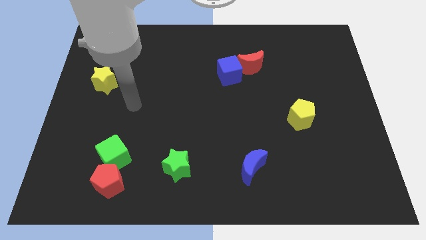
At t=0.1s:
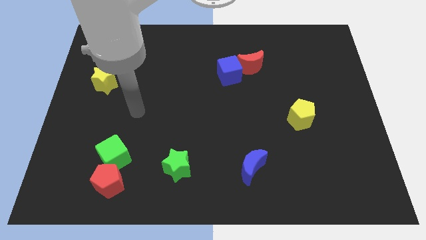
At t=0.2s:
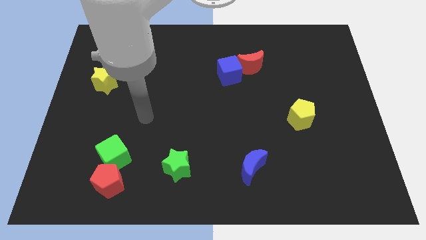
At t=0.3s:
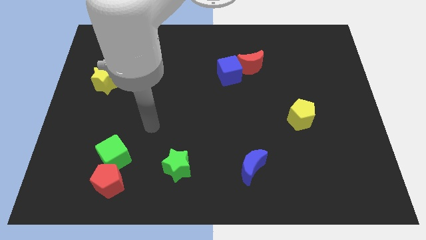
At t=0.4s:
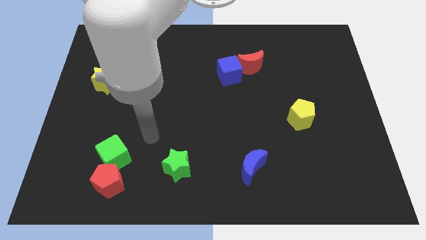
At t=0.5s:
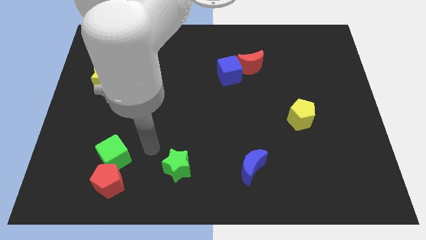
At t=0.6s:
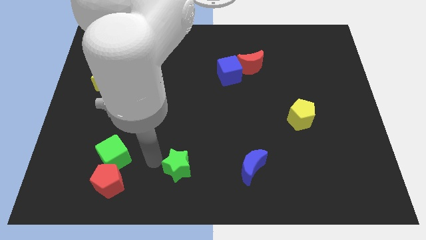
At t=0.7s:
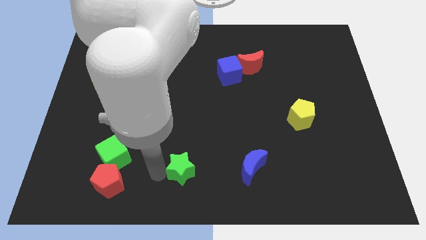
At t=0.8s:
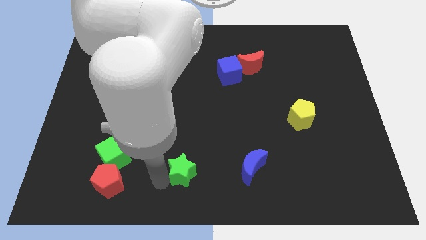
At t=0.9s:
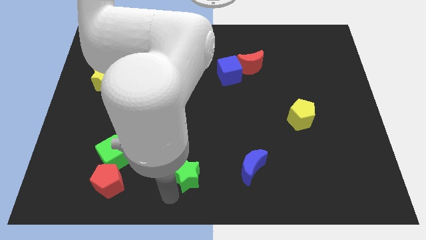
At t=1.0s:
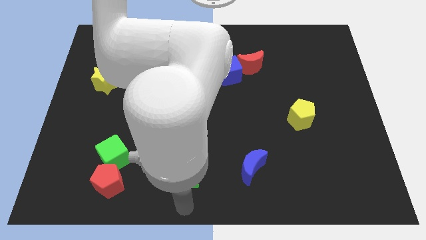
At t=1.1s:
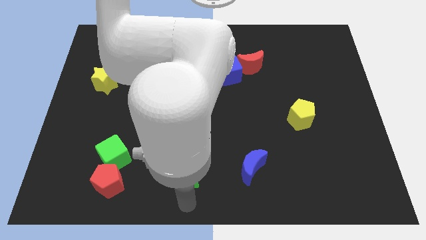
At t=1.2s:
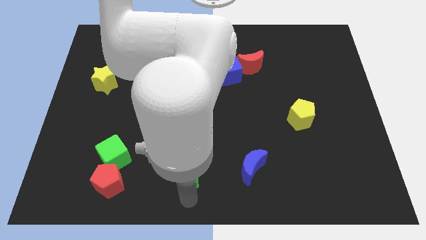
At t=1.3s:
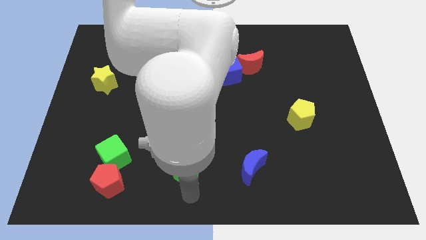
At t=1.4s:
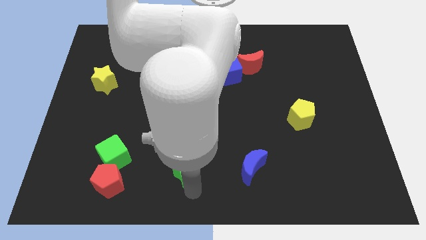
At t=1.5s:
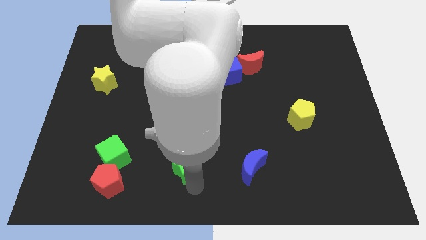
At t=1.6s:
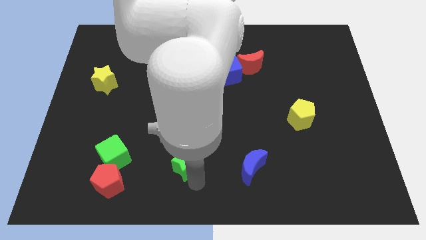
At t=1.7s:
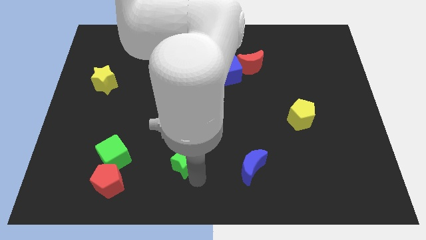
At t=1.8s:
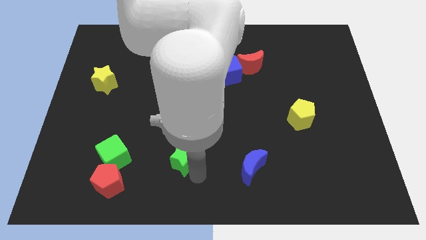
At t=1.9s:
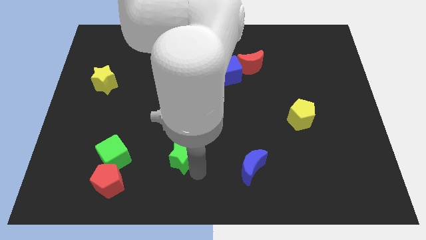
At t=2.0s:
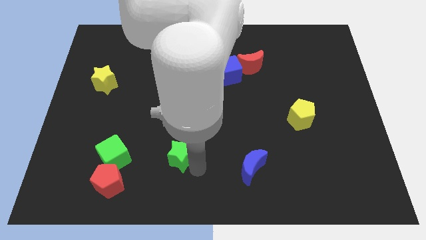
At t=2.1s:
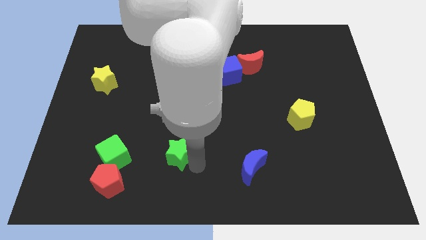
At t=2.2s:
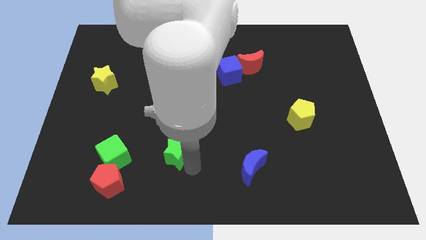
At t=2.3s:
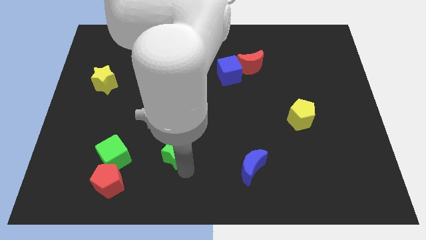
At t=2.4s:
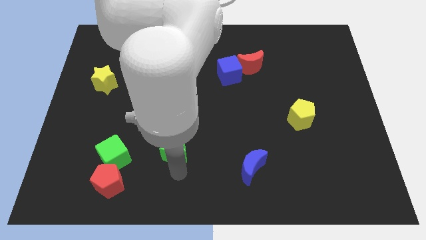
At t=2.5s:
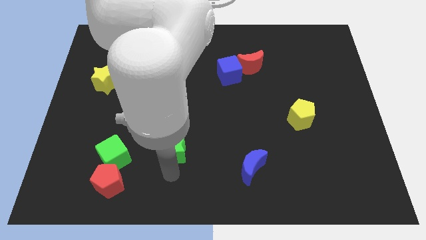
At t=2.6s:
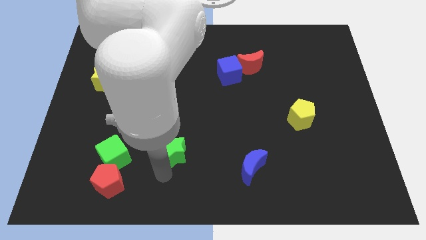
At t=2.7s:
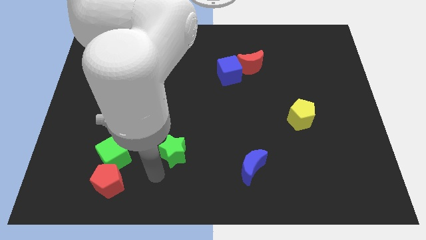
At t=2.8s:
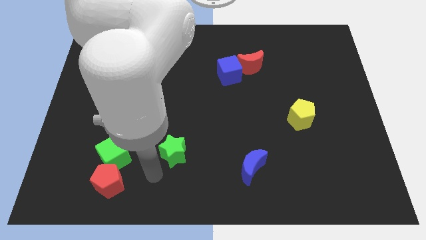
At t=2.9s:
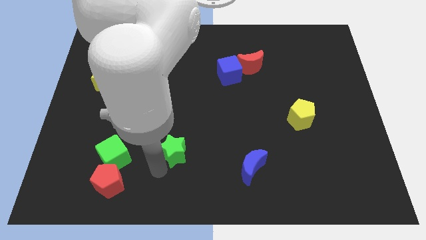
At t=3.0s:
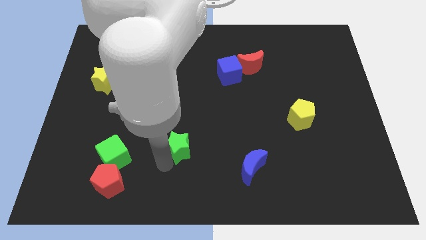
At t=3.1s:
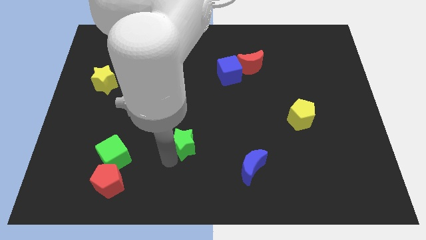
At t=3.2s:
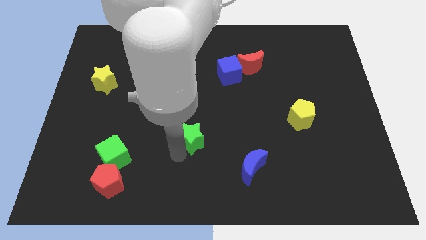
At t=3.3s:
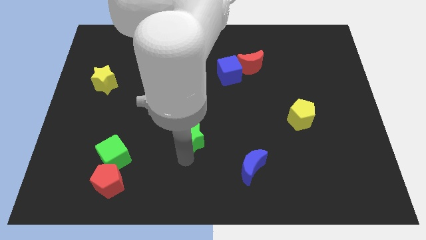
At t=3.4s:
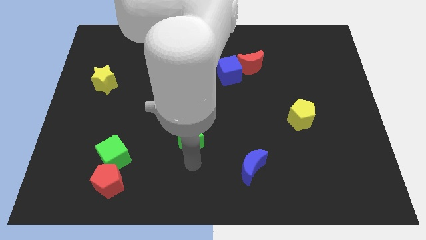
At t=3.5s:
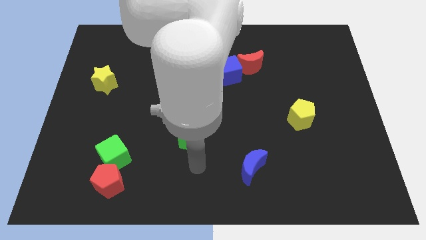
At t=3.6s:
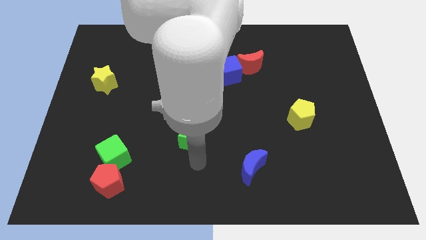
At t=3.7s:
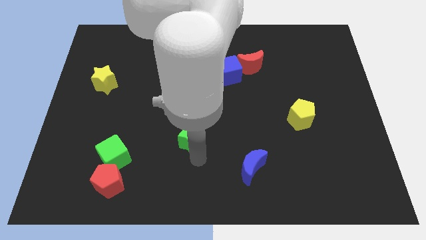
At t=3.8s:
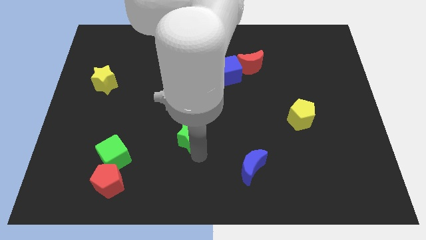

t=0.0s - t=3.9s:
push the green star a little bit upwards

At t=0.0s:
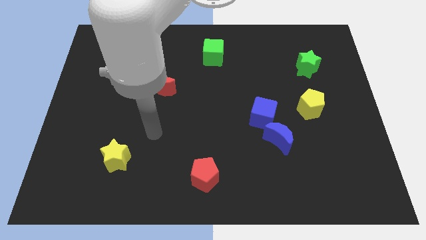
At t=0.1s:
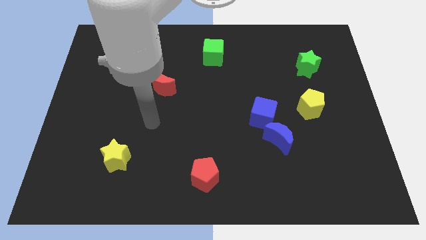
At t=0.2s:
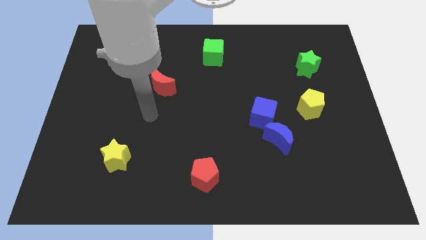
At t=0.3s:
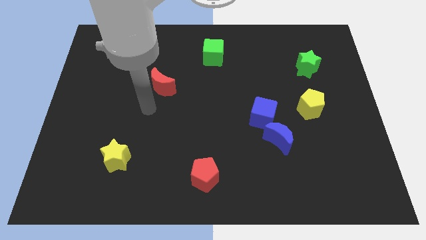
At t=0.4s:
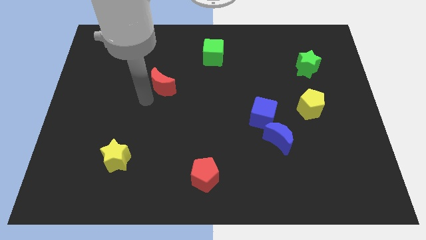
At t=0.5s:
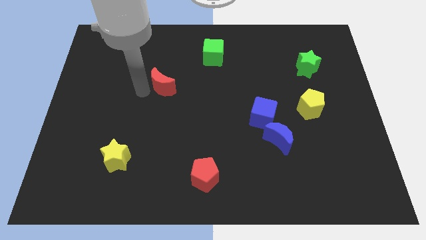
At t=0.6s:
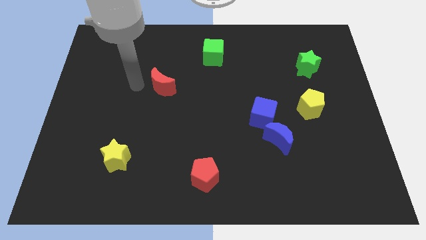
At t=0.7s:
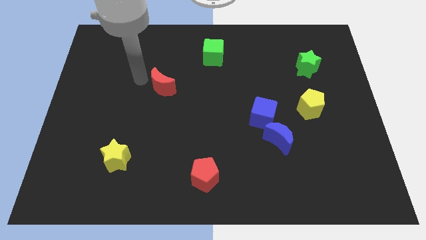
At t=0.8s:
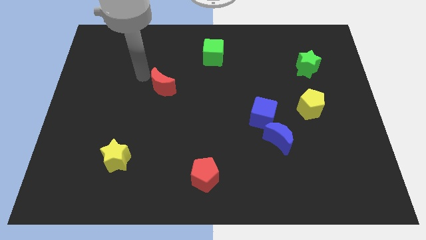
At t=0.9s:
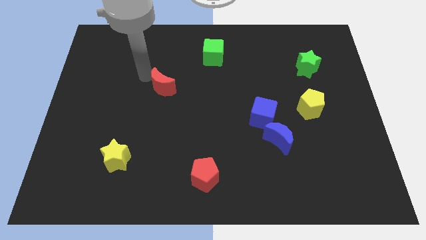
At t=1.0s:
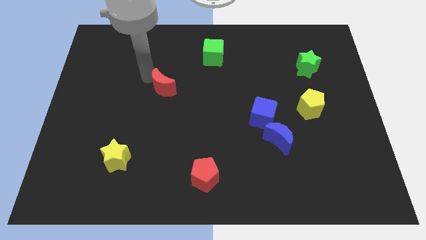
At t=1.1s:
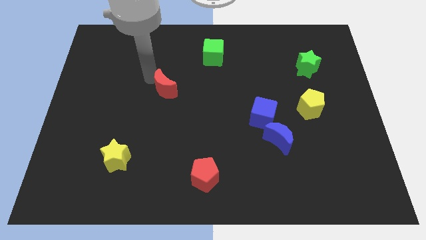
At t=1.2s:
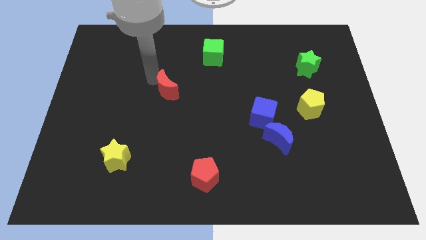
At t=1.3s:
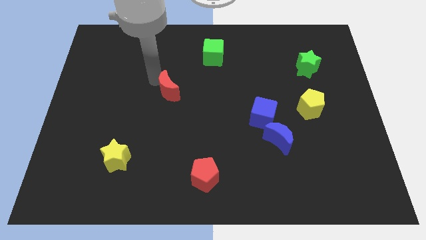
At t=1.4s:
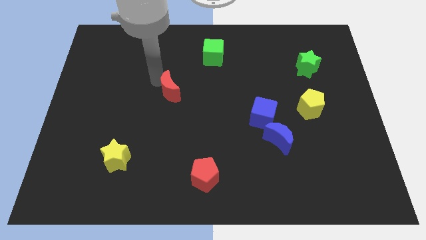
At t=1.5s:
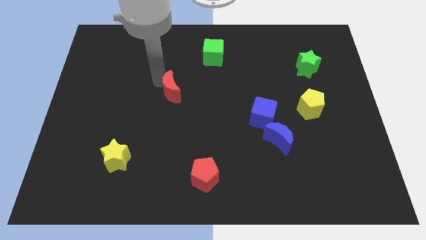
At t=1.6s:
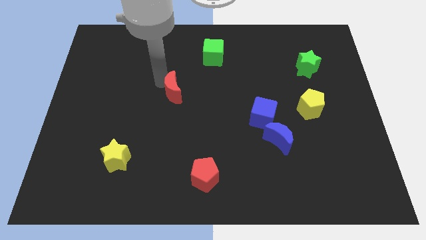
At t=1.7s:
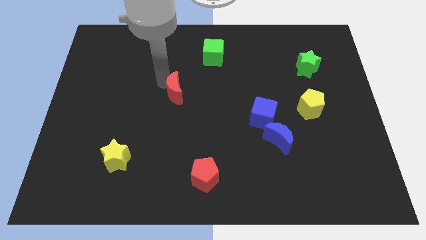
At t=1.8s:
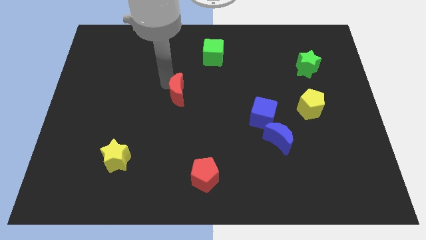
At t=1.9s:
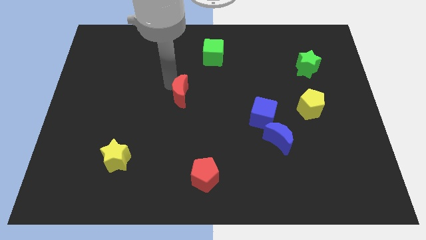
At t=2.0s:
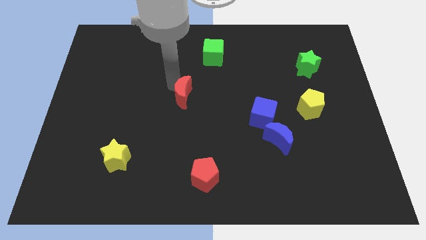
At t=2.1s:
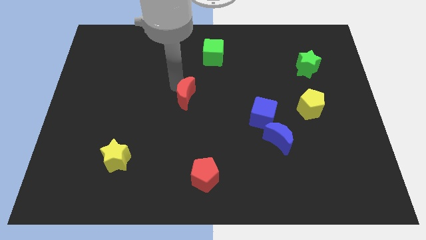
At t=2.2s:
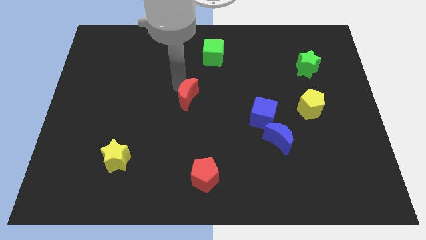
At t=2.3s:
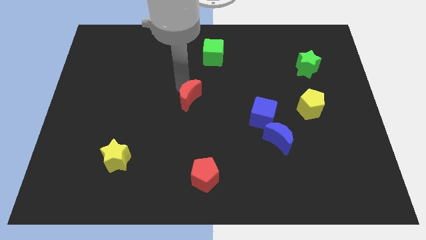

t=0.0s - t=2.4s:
move the red moon diagonally downwards and right a little bit

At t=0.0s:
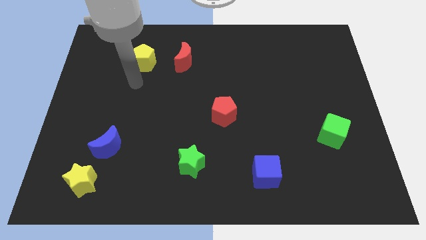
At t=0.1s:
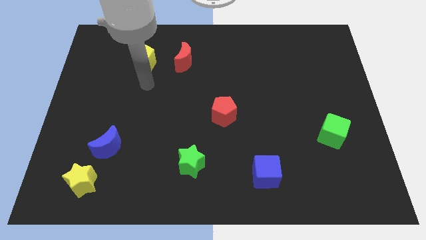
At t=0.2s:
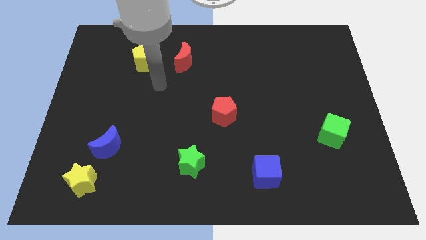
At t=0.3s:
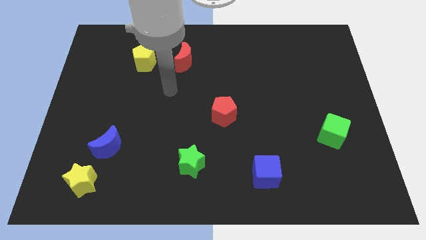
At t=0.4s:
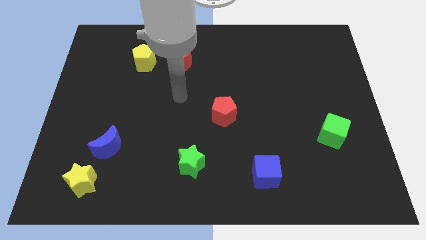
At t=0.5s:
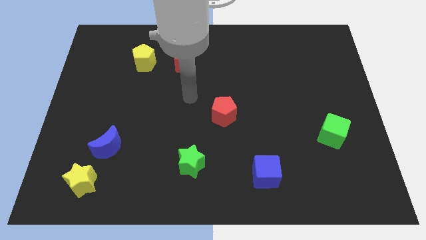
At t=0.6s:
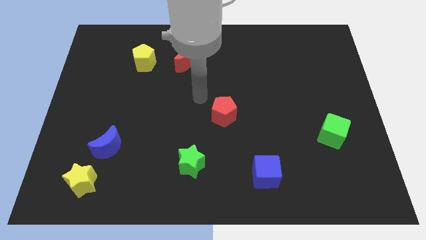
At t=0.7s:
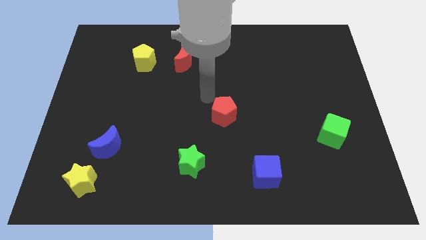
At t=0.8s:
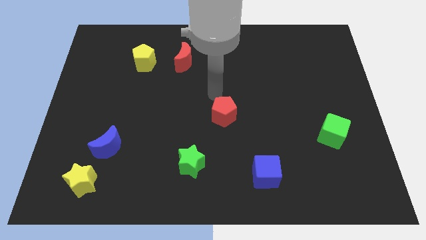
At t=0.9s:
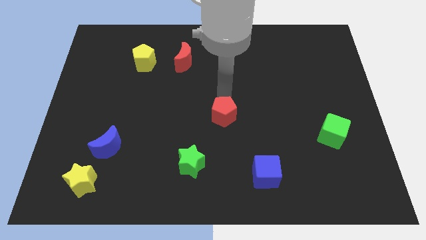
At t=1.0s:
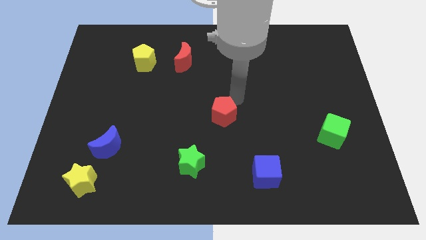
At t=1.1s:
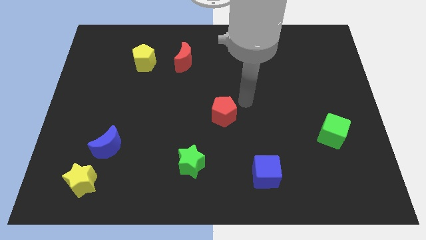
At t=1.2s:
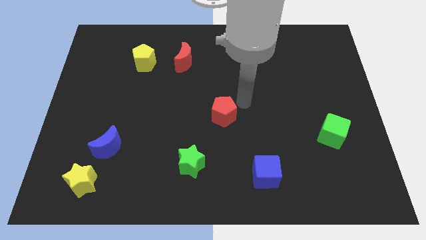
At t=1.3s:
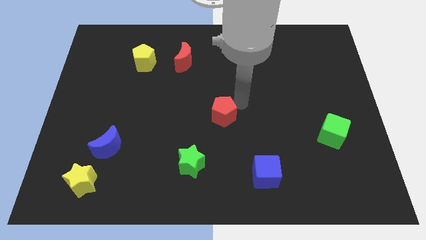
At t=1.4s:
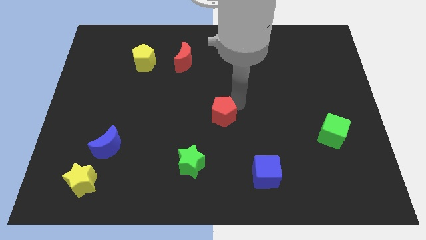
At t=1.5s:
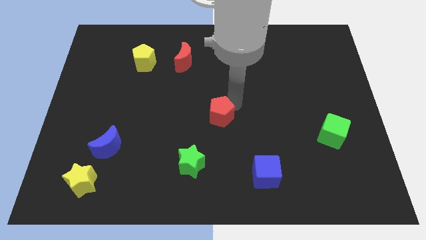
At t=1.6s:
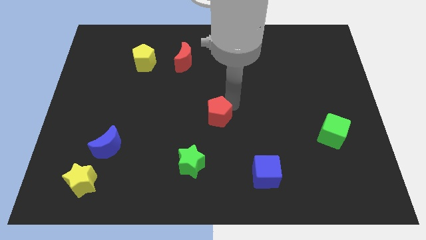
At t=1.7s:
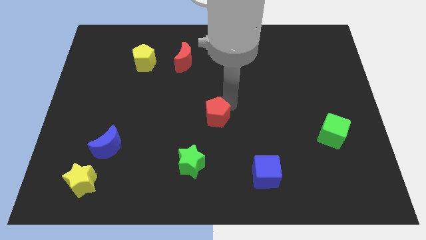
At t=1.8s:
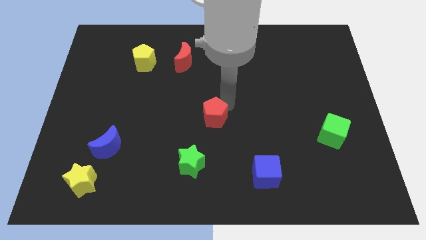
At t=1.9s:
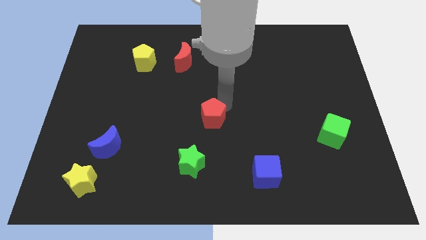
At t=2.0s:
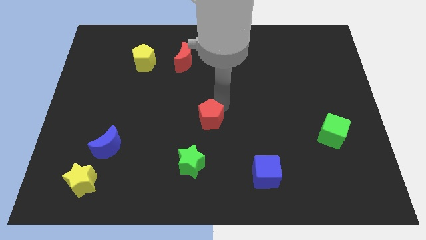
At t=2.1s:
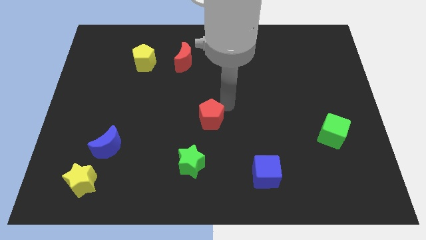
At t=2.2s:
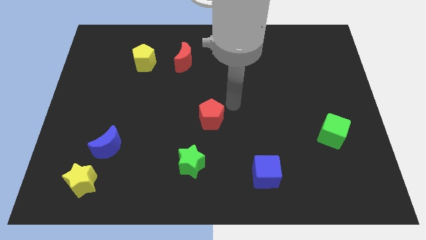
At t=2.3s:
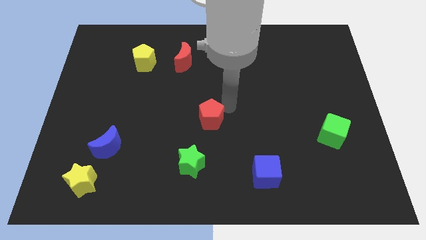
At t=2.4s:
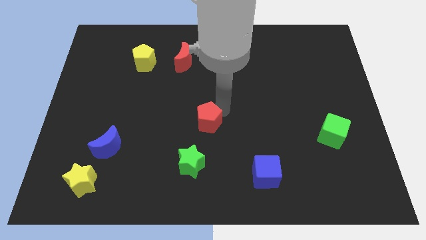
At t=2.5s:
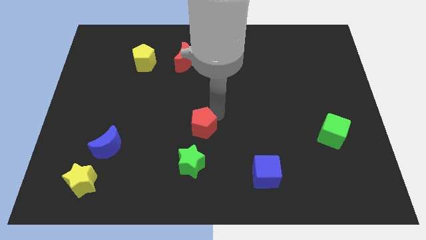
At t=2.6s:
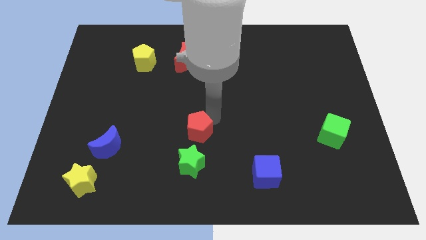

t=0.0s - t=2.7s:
slightly move the red pentagon diagonally down and left
